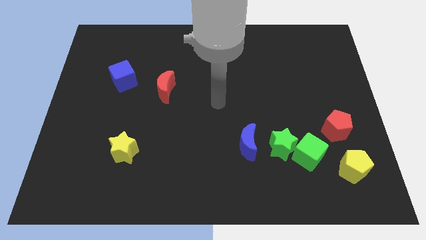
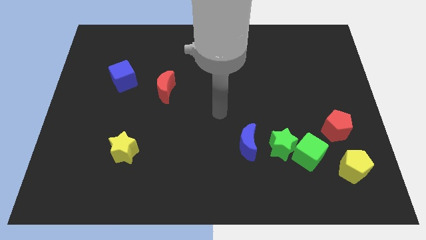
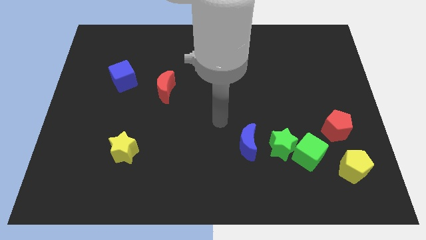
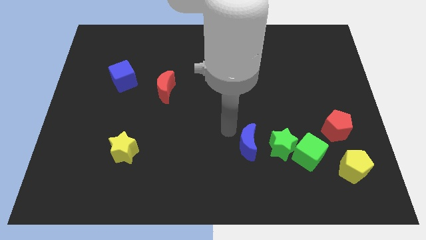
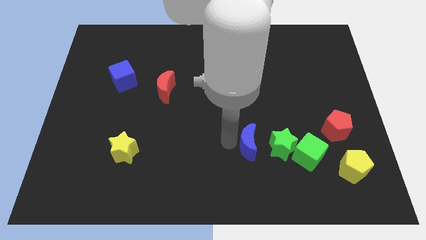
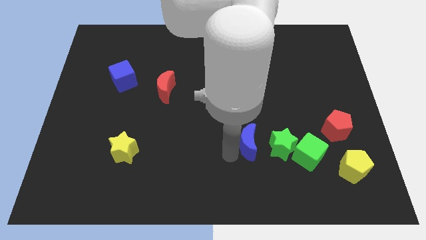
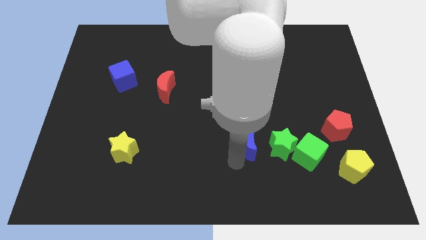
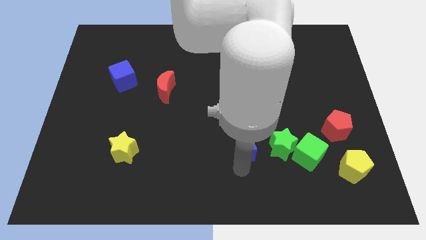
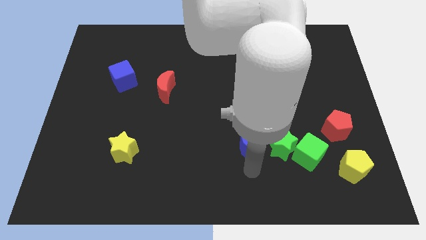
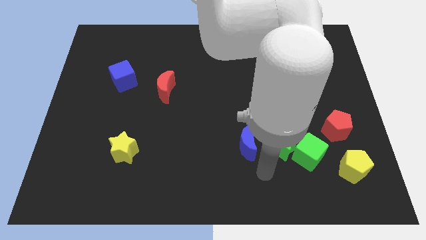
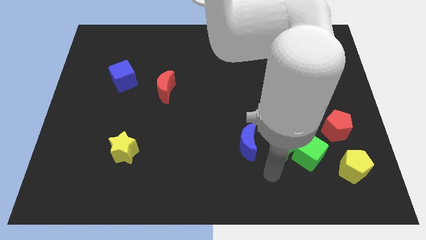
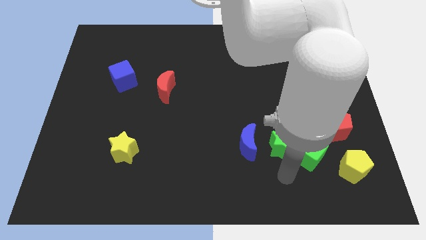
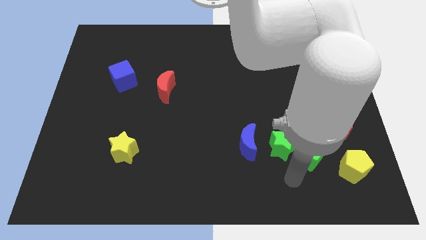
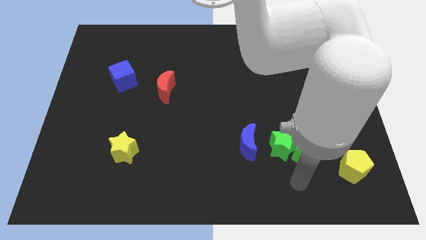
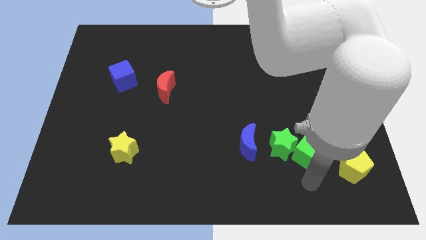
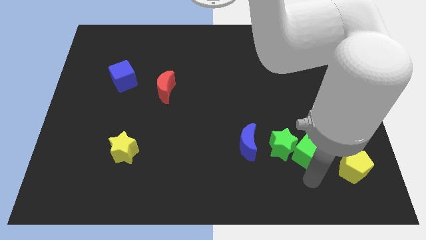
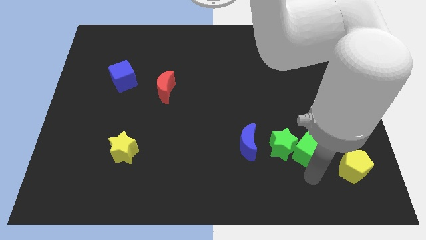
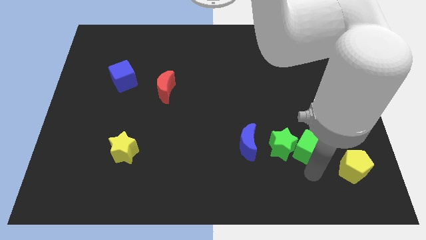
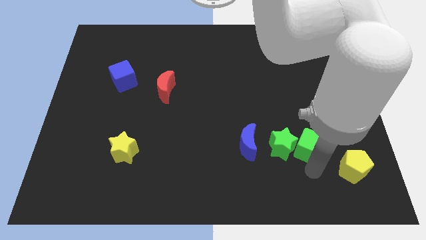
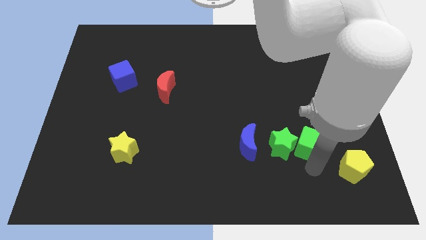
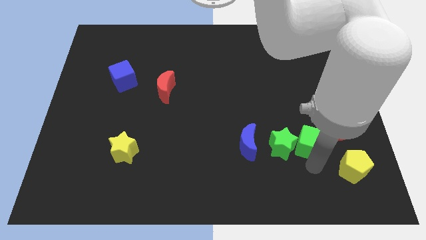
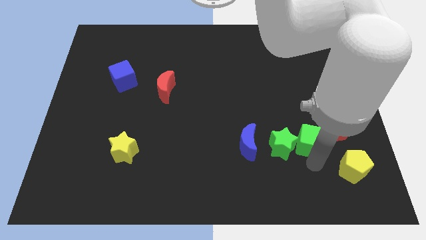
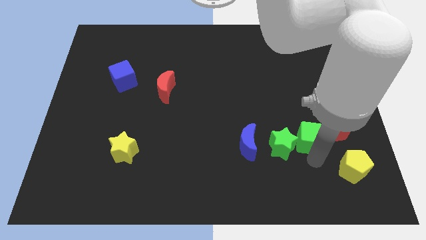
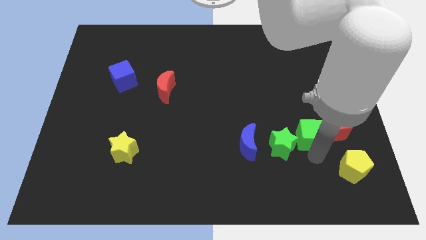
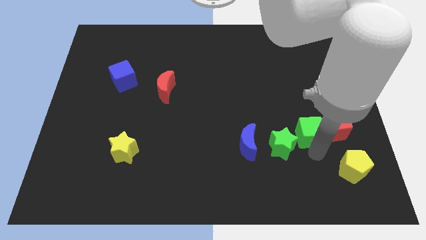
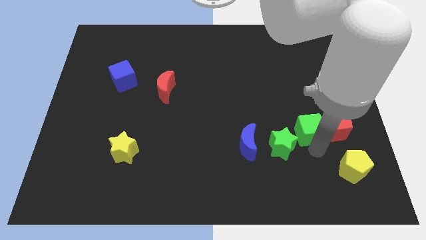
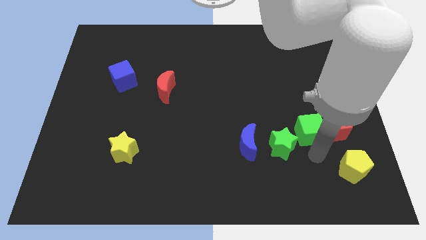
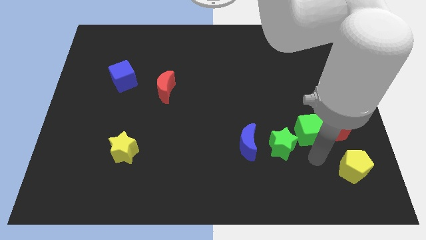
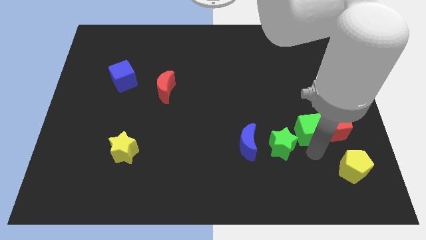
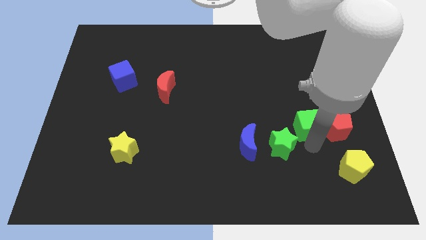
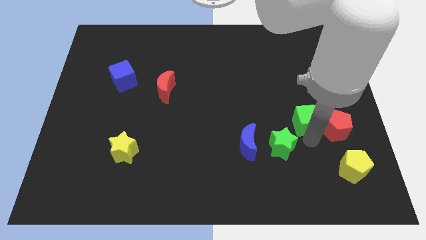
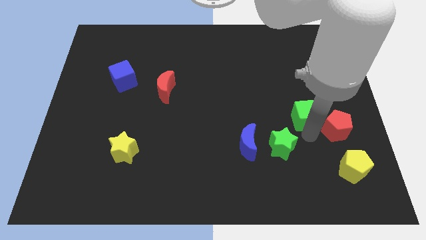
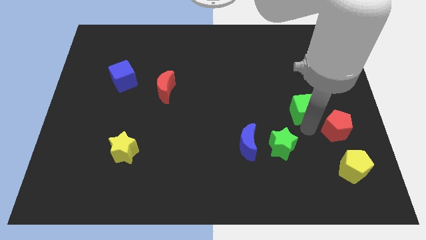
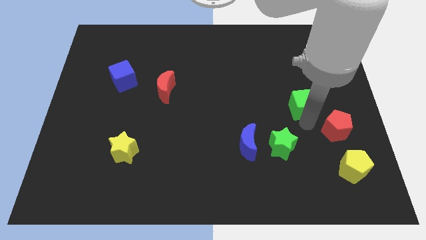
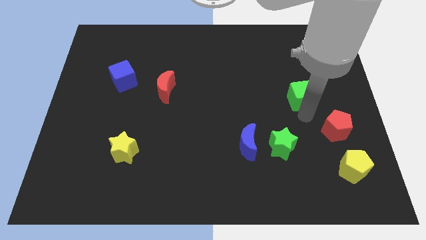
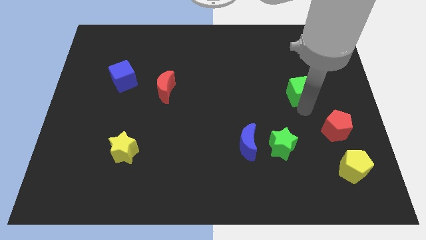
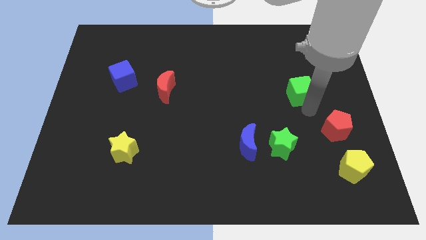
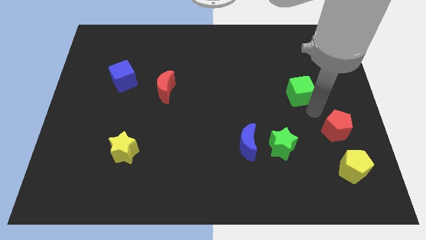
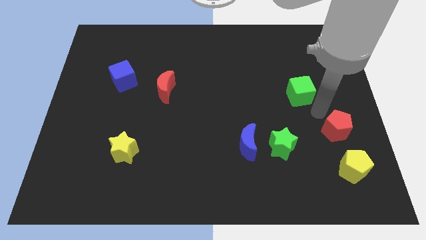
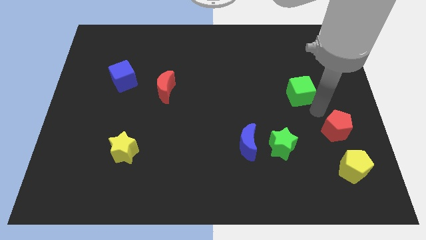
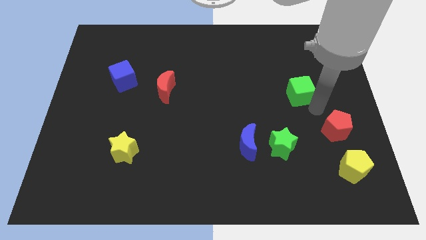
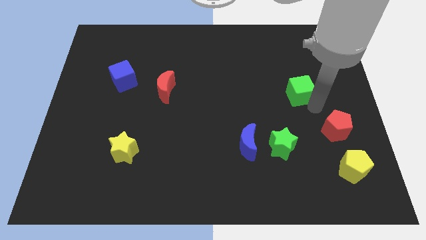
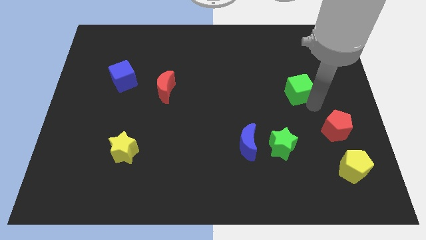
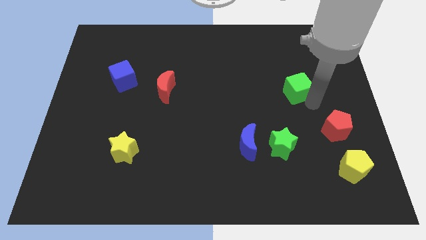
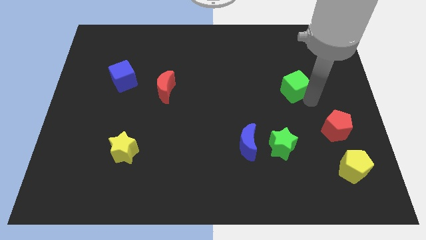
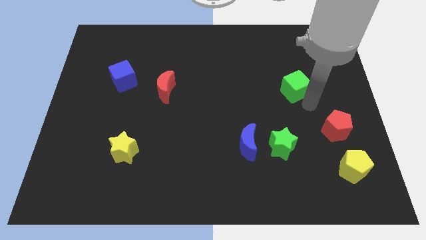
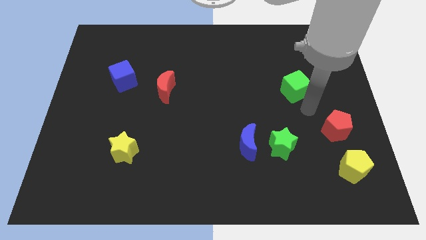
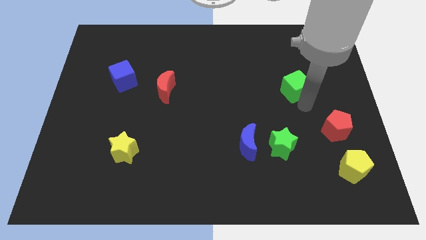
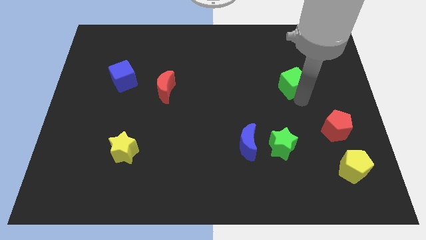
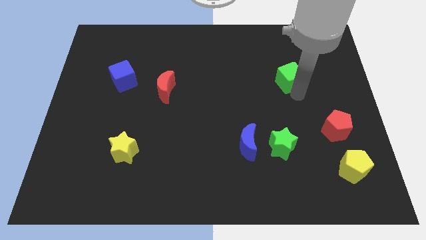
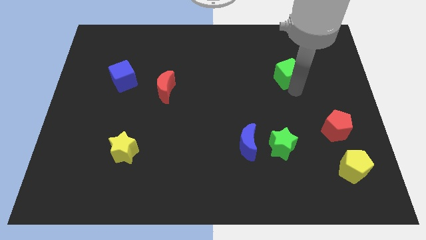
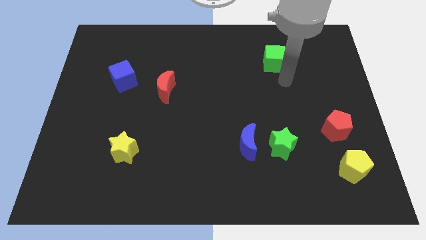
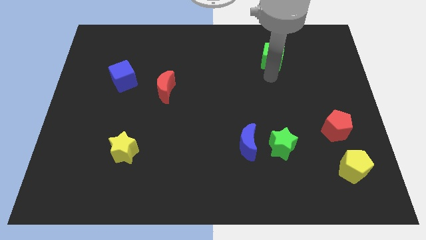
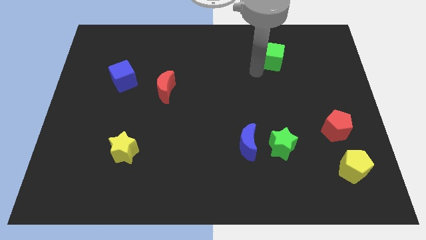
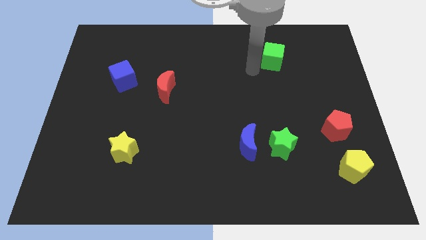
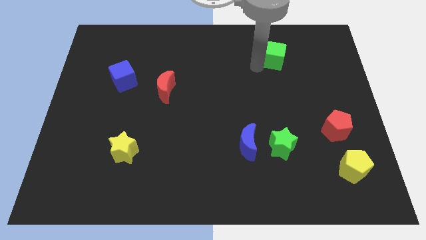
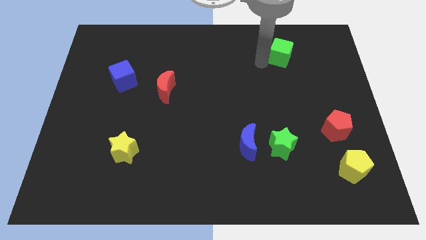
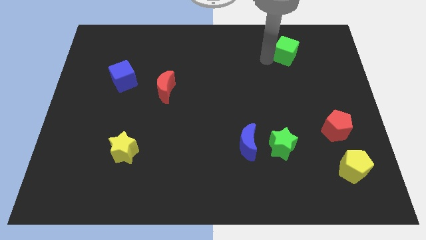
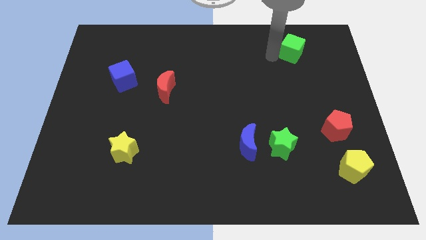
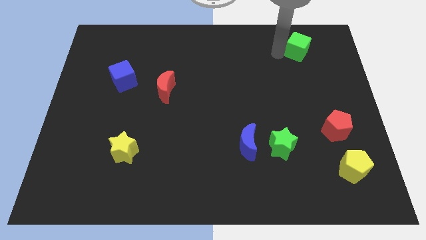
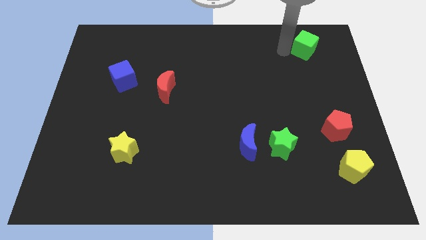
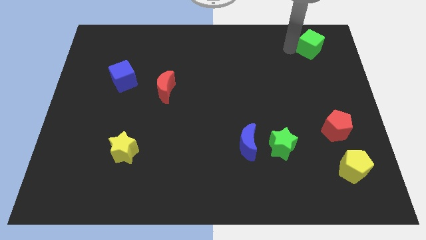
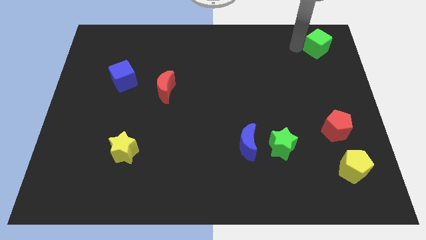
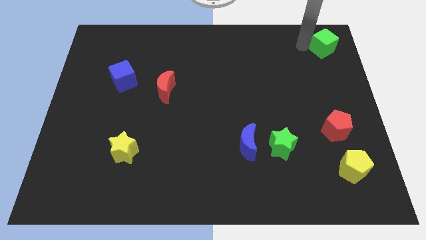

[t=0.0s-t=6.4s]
push the green cube to the top right of the board

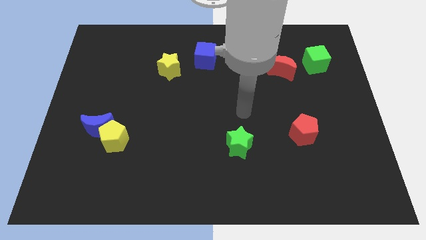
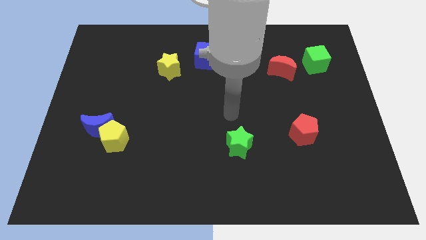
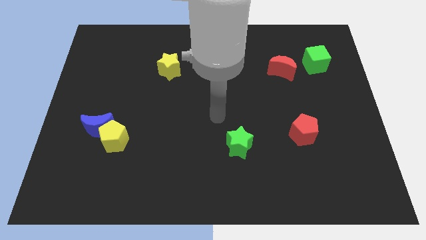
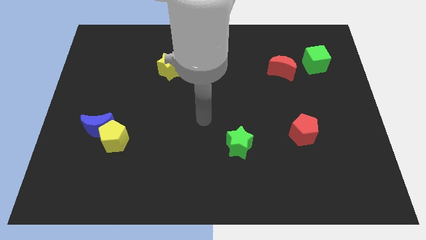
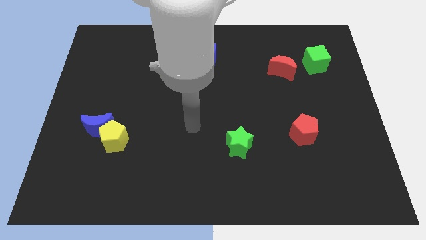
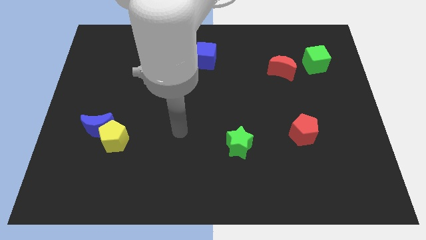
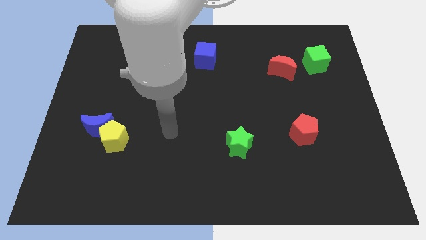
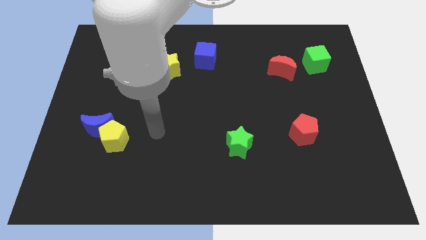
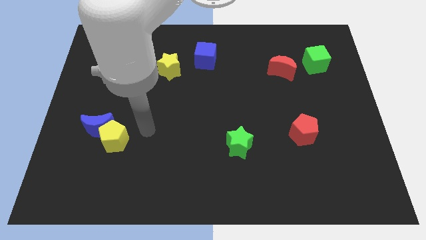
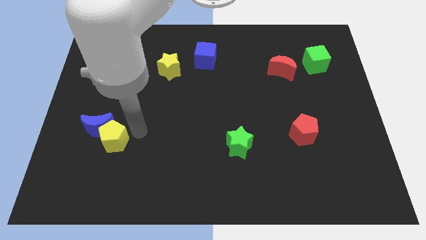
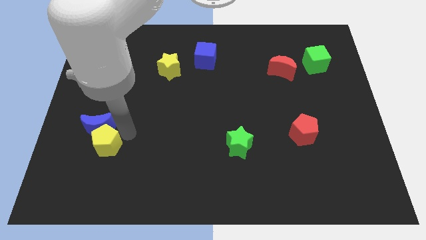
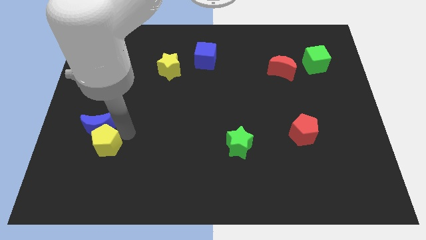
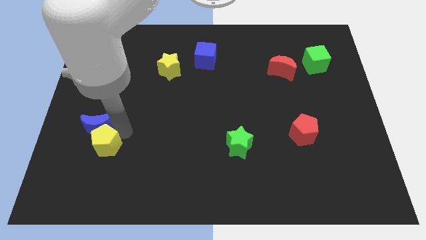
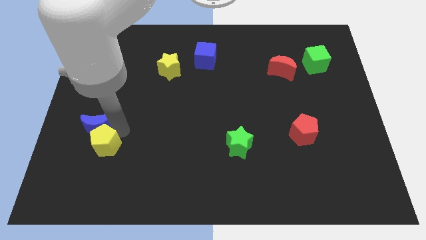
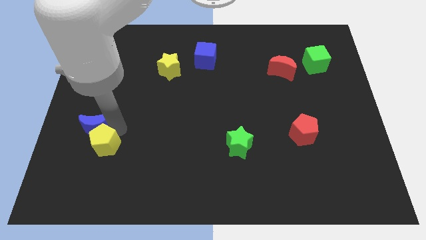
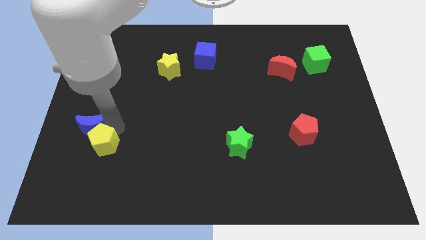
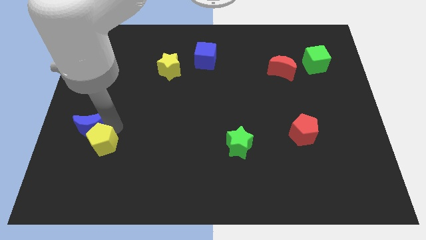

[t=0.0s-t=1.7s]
slide the blue moon to the left side of the board
